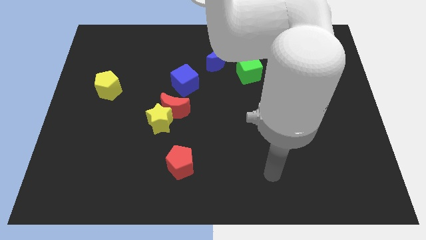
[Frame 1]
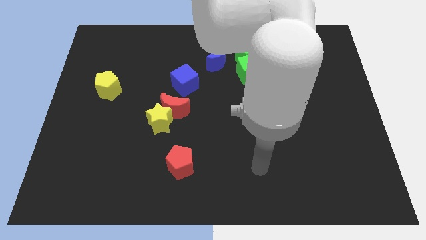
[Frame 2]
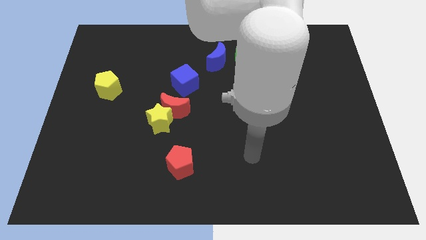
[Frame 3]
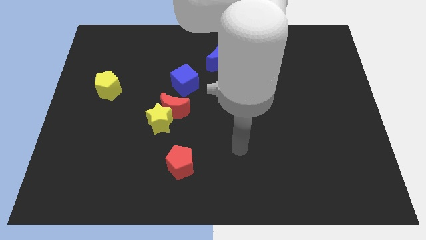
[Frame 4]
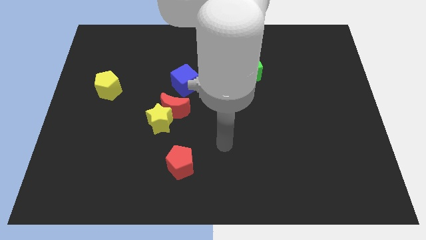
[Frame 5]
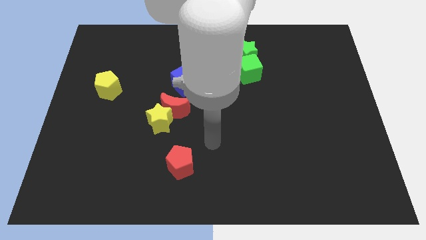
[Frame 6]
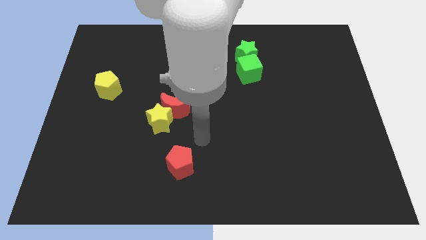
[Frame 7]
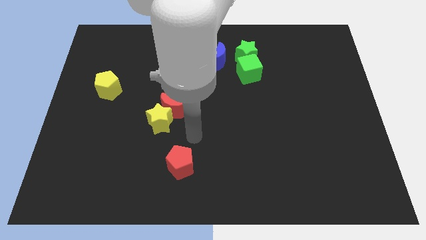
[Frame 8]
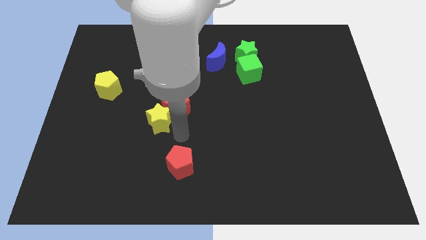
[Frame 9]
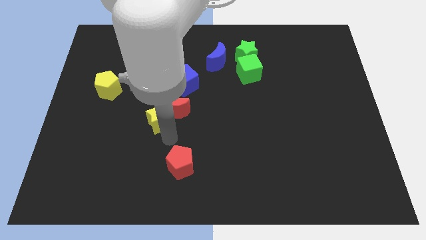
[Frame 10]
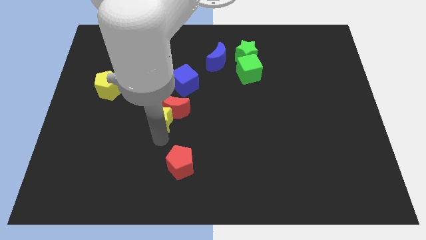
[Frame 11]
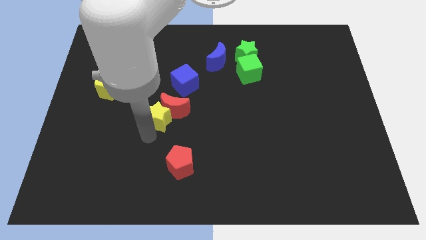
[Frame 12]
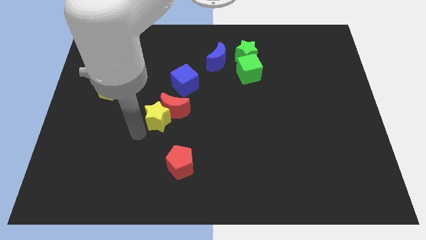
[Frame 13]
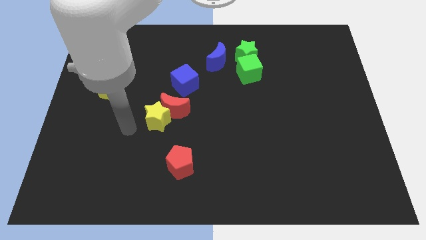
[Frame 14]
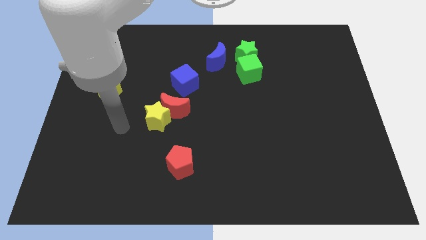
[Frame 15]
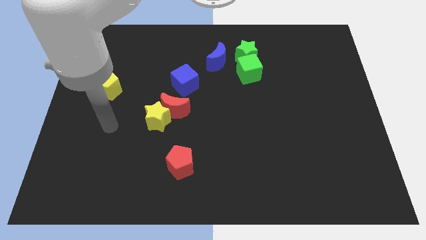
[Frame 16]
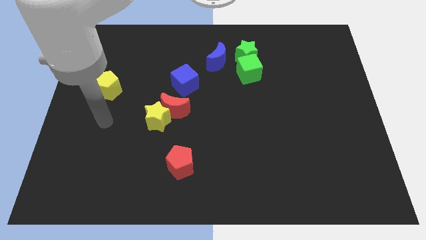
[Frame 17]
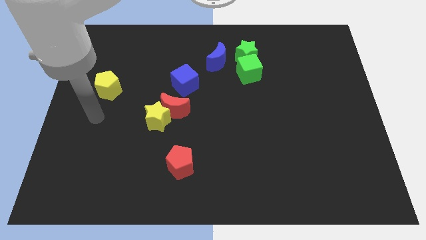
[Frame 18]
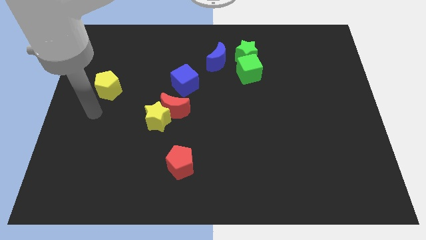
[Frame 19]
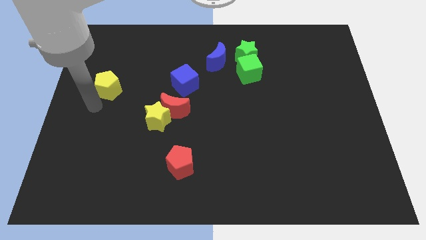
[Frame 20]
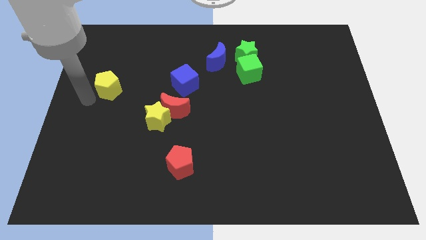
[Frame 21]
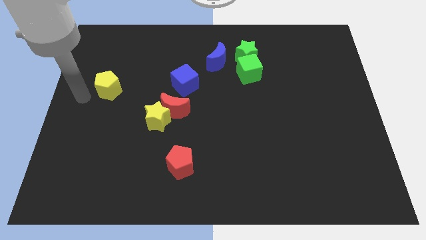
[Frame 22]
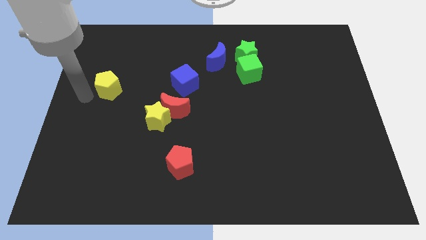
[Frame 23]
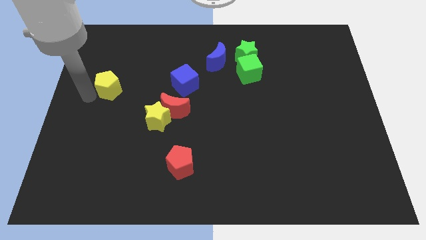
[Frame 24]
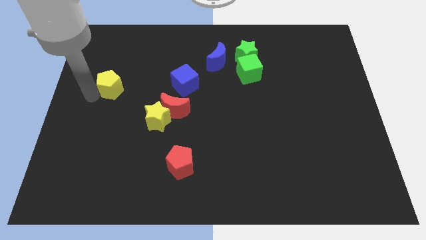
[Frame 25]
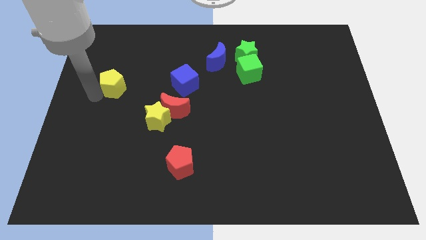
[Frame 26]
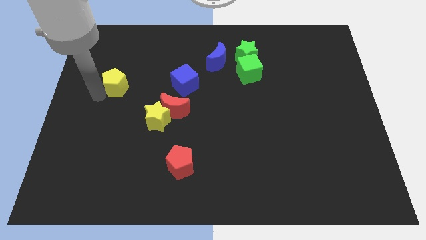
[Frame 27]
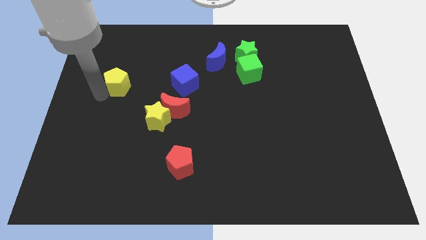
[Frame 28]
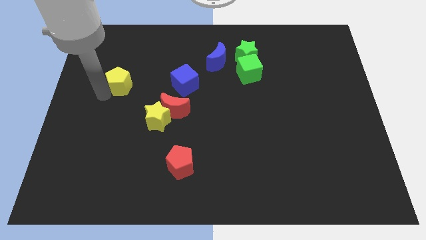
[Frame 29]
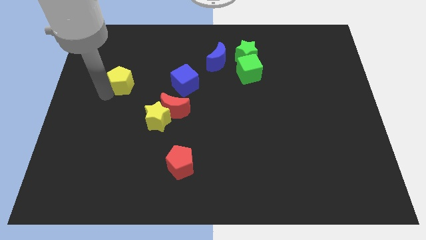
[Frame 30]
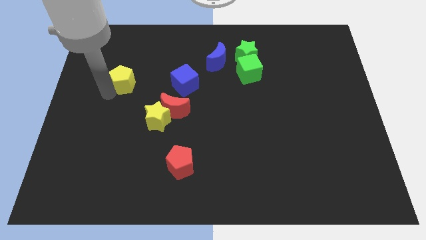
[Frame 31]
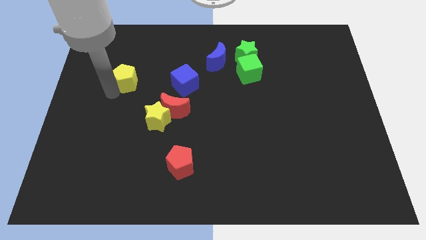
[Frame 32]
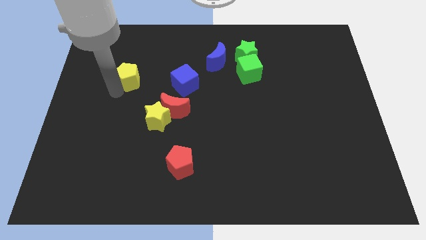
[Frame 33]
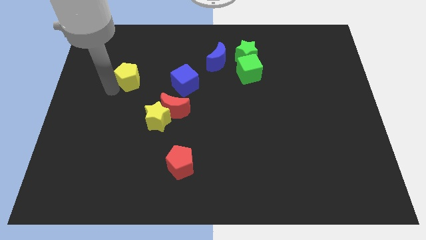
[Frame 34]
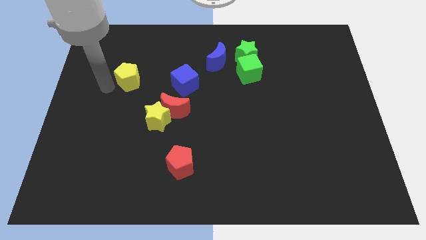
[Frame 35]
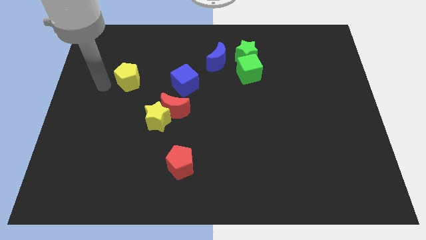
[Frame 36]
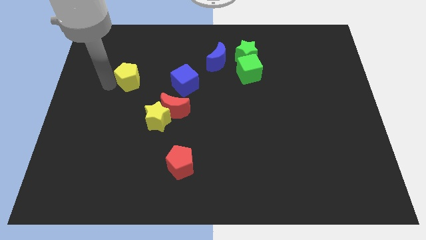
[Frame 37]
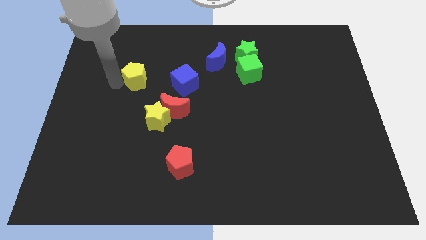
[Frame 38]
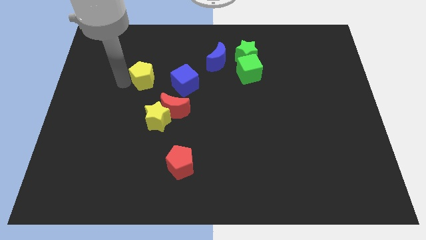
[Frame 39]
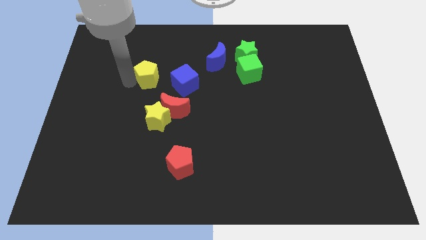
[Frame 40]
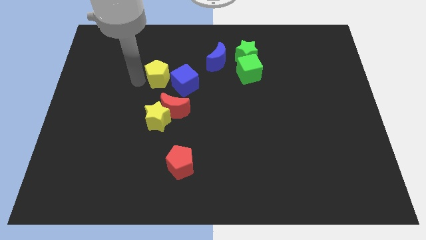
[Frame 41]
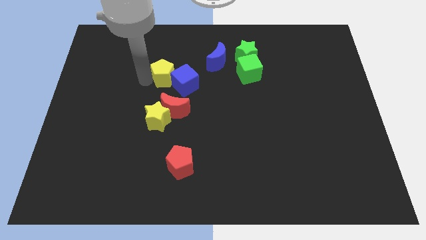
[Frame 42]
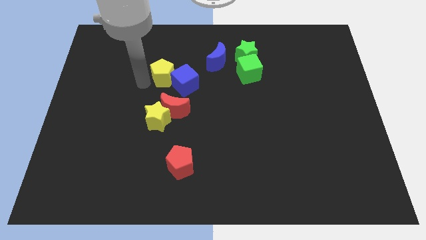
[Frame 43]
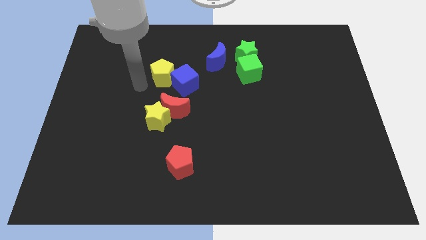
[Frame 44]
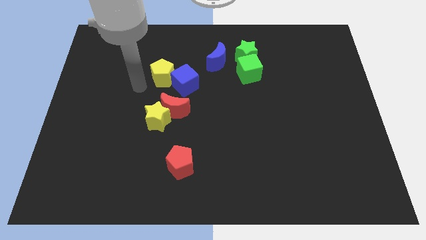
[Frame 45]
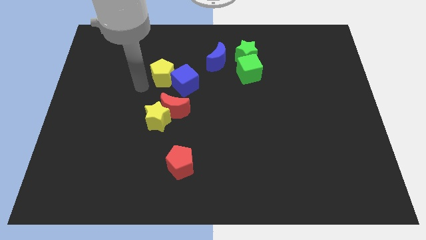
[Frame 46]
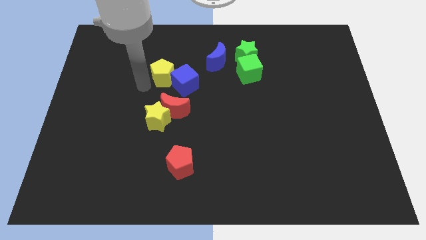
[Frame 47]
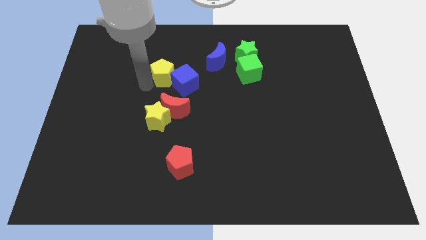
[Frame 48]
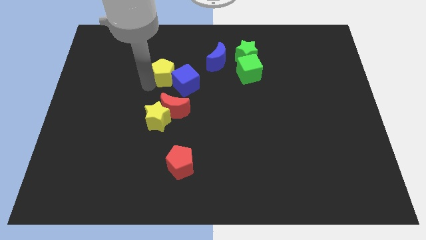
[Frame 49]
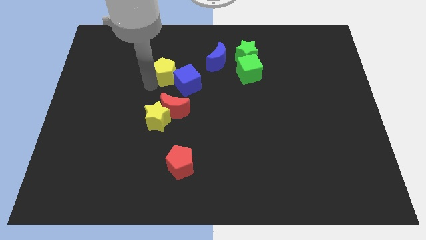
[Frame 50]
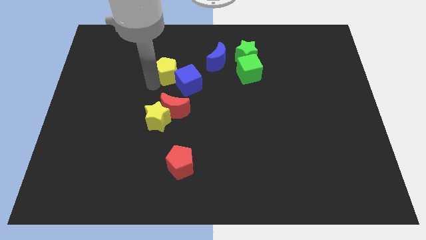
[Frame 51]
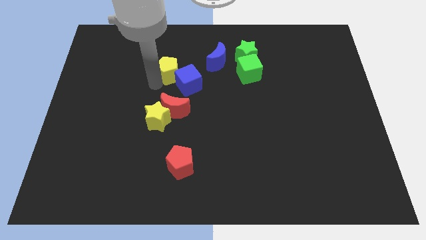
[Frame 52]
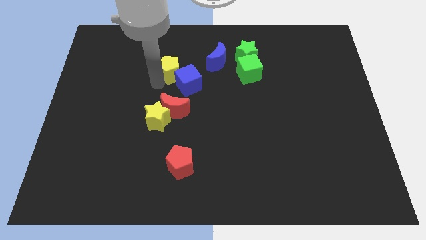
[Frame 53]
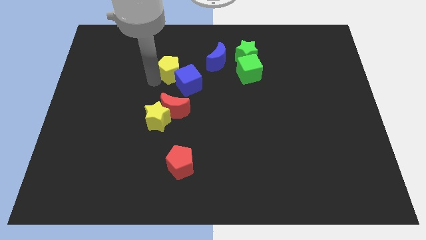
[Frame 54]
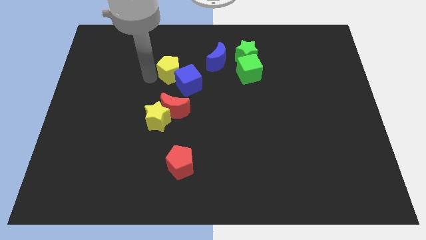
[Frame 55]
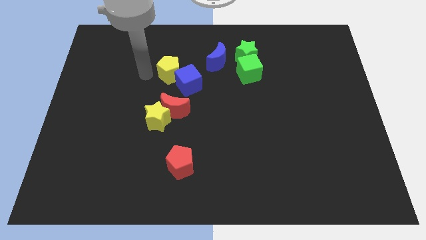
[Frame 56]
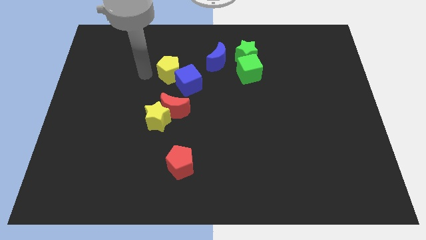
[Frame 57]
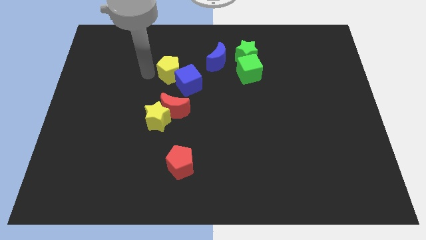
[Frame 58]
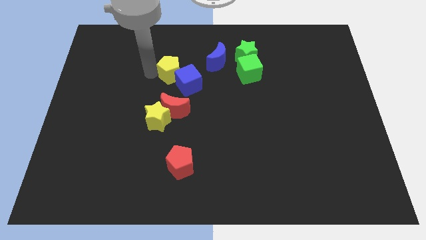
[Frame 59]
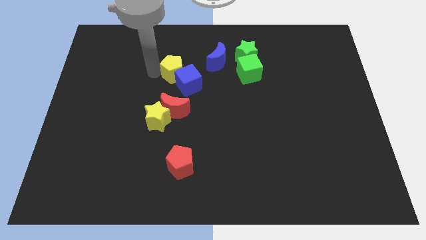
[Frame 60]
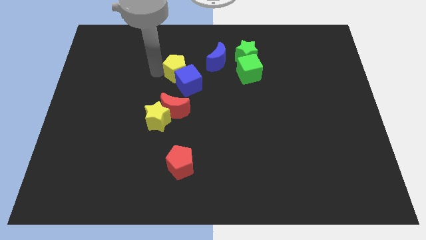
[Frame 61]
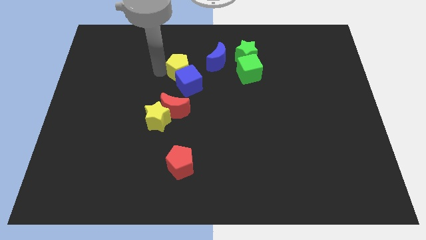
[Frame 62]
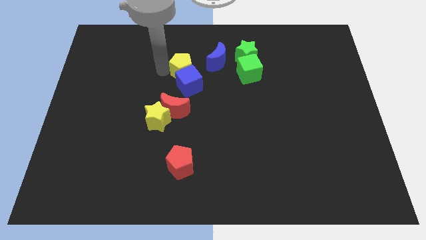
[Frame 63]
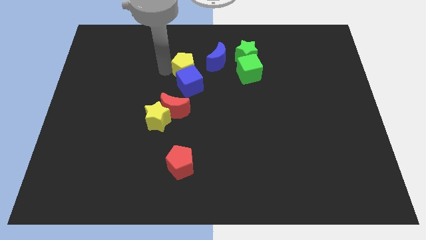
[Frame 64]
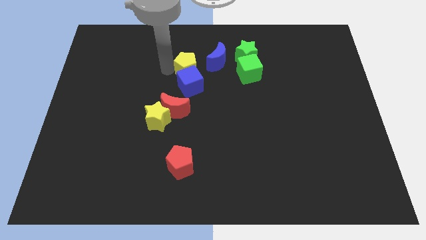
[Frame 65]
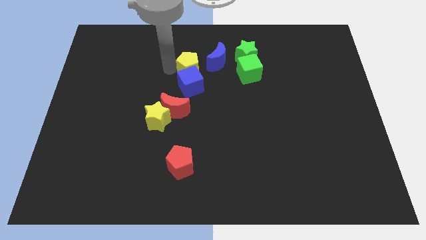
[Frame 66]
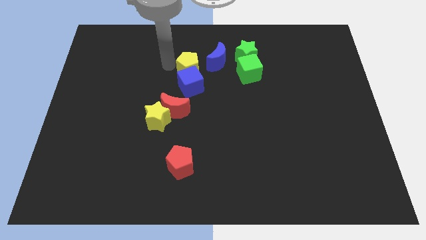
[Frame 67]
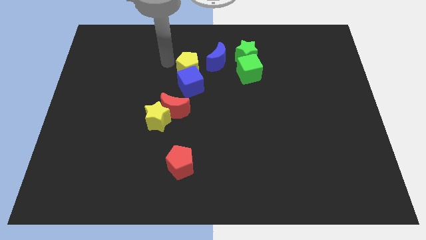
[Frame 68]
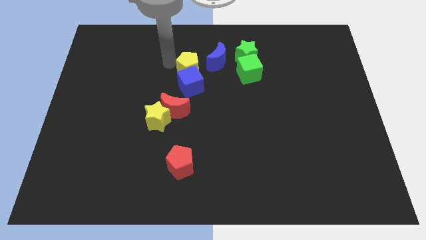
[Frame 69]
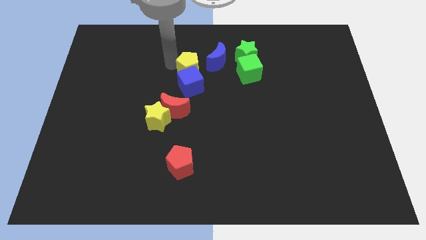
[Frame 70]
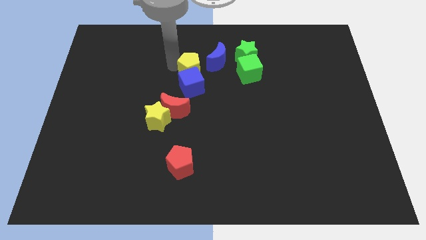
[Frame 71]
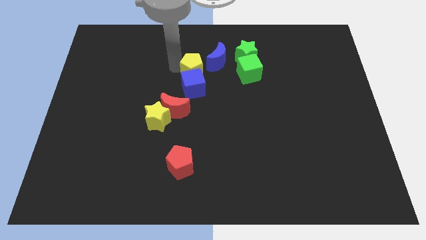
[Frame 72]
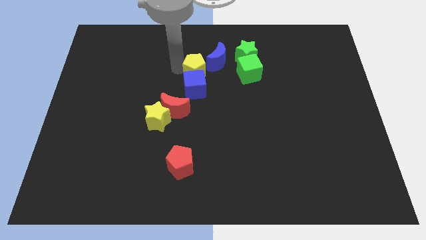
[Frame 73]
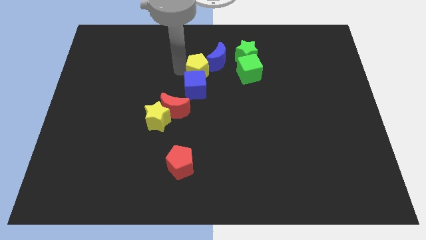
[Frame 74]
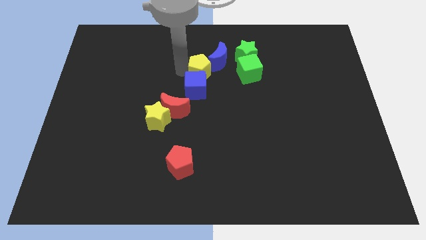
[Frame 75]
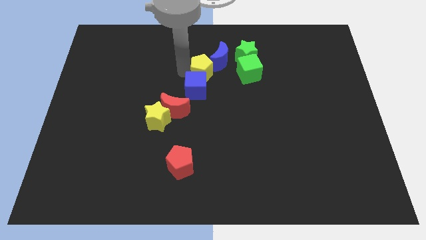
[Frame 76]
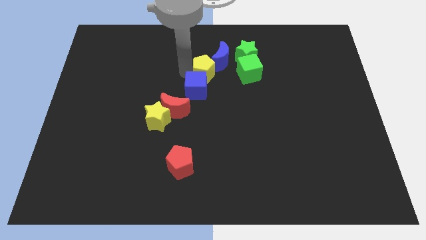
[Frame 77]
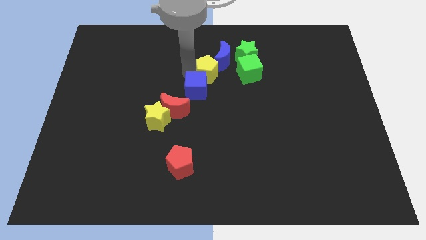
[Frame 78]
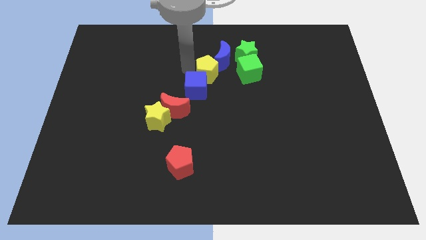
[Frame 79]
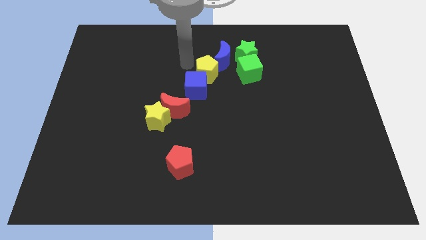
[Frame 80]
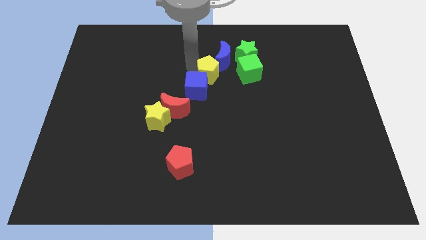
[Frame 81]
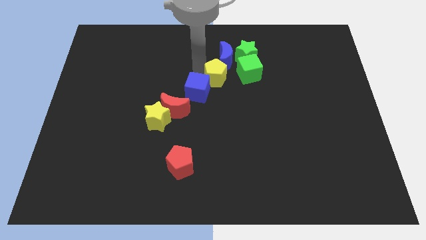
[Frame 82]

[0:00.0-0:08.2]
put the yellow pentagon just right of the blue cube
